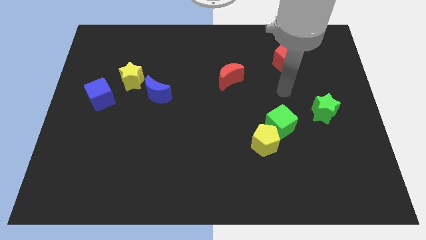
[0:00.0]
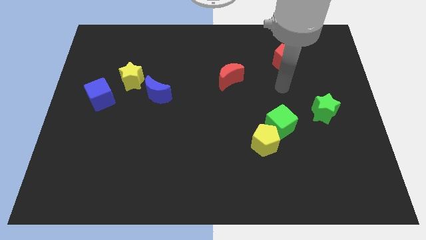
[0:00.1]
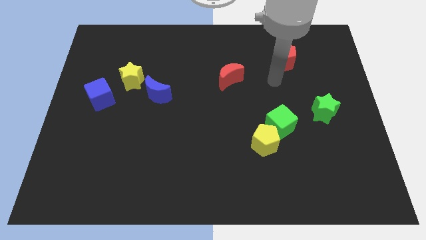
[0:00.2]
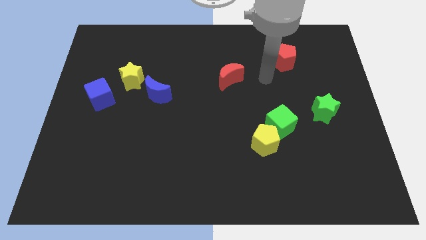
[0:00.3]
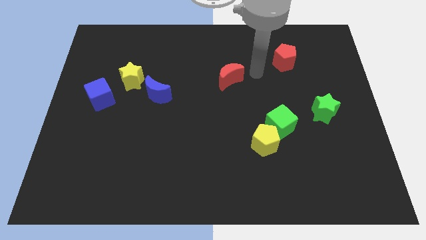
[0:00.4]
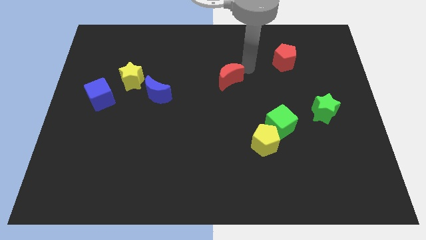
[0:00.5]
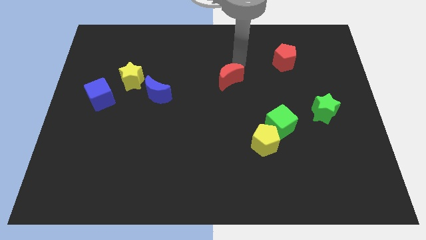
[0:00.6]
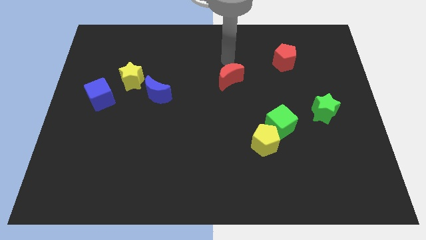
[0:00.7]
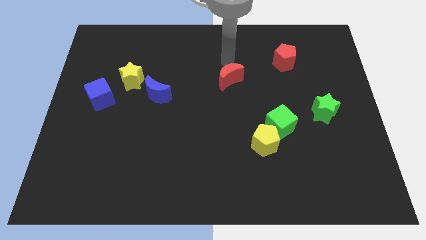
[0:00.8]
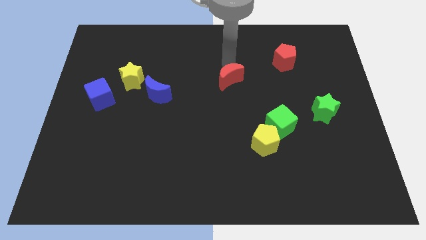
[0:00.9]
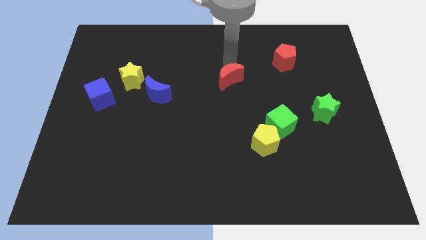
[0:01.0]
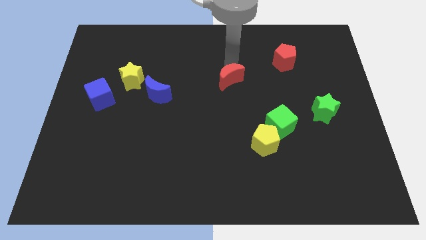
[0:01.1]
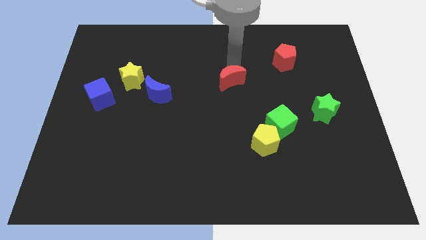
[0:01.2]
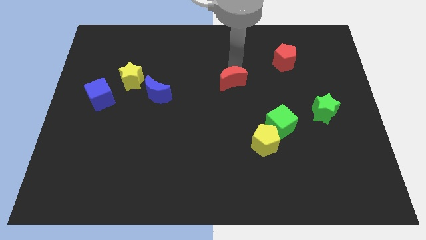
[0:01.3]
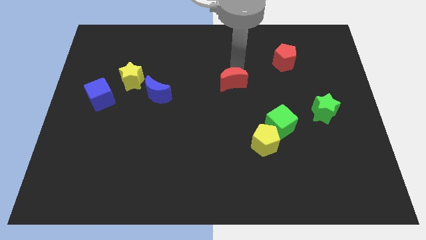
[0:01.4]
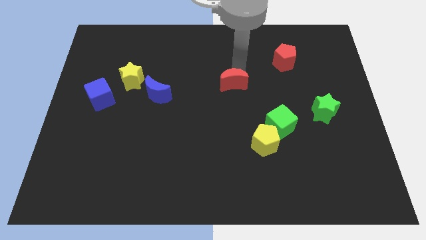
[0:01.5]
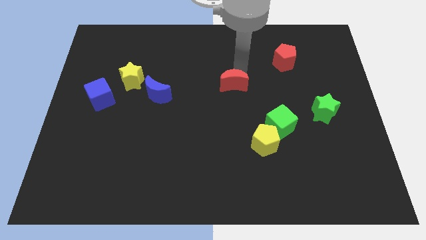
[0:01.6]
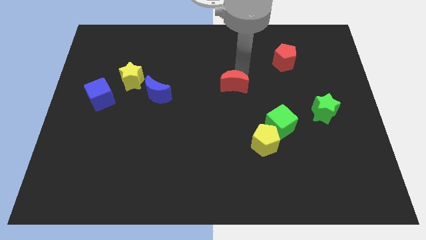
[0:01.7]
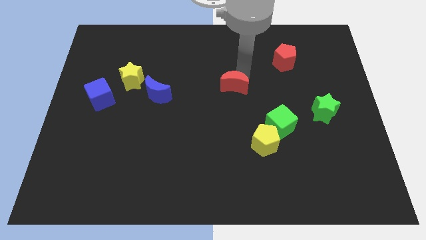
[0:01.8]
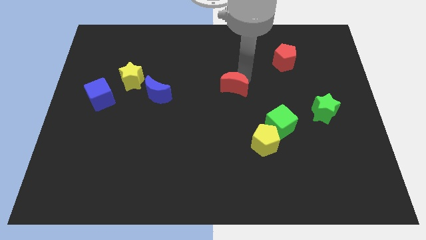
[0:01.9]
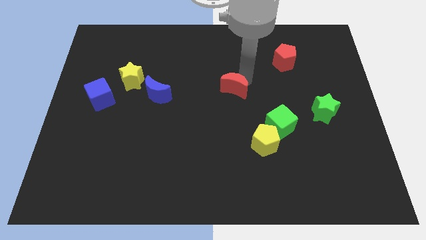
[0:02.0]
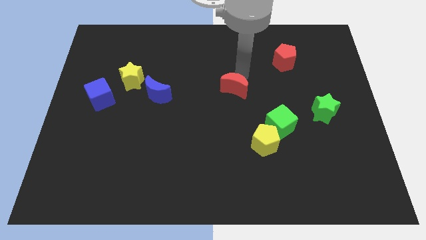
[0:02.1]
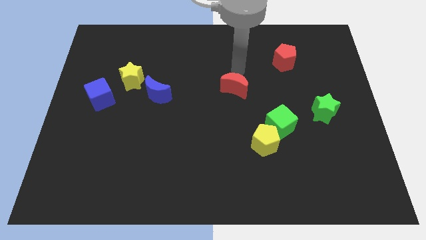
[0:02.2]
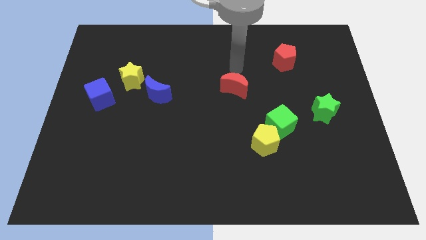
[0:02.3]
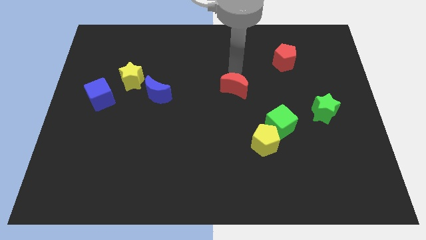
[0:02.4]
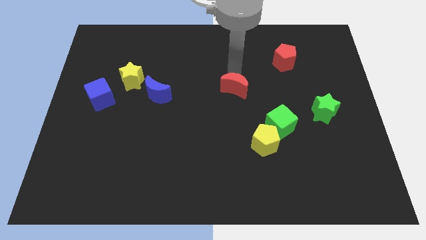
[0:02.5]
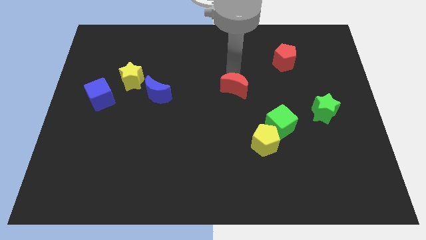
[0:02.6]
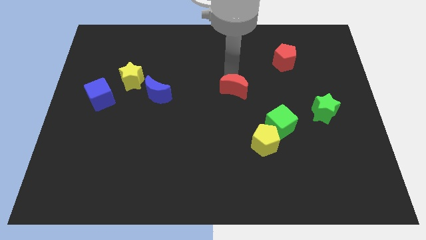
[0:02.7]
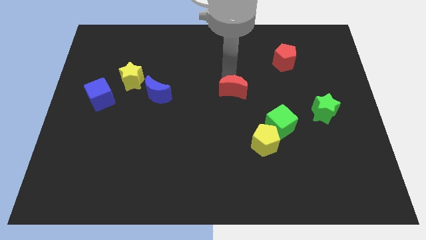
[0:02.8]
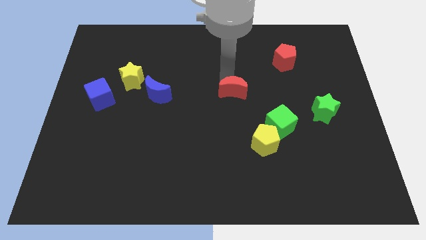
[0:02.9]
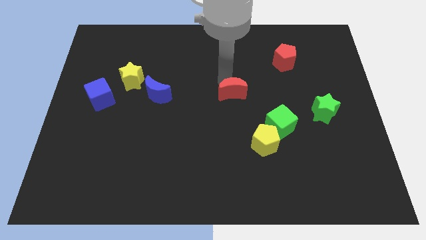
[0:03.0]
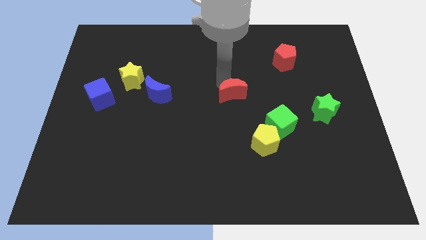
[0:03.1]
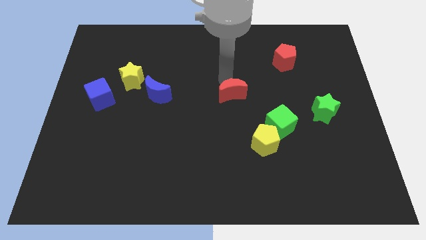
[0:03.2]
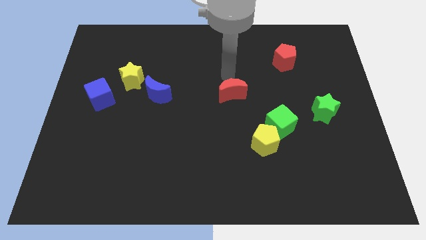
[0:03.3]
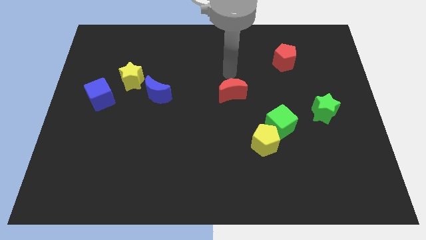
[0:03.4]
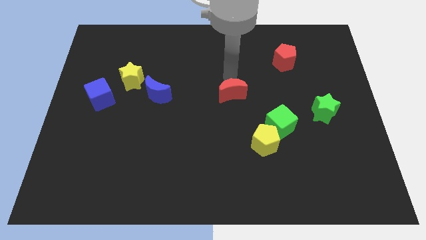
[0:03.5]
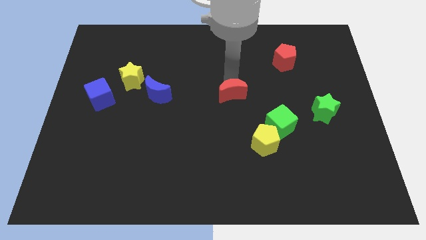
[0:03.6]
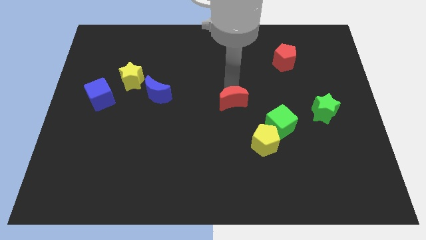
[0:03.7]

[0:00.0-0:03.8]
push the red moon slightly down

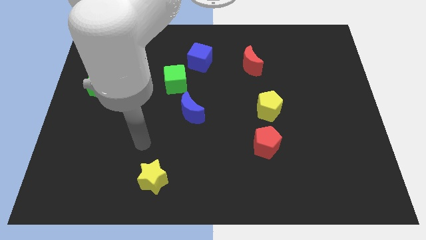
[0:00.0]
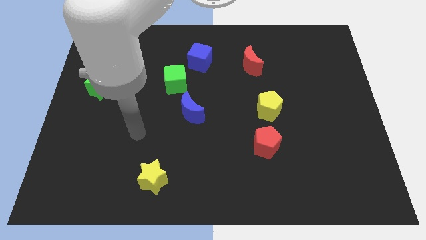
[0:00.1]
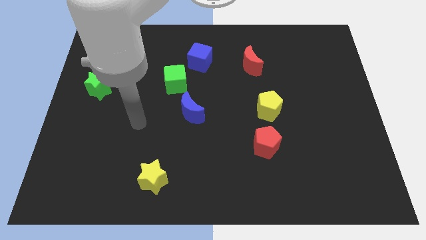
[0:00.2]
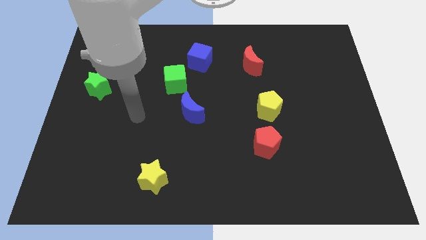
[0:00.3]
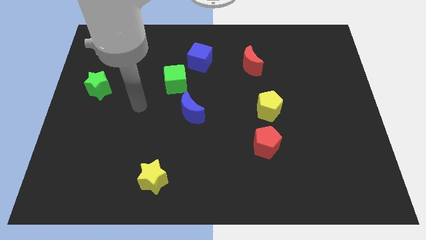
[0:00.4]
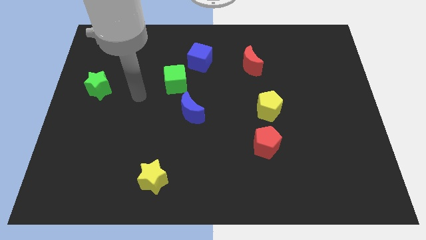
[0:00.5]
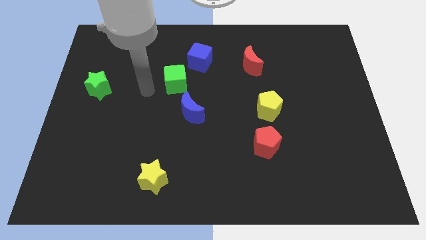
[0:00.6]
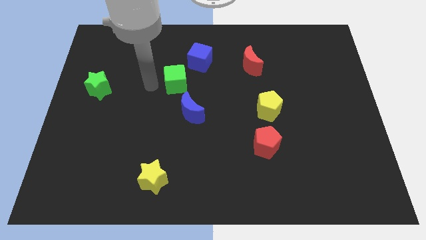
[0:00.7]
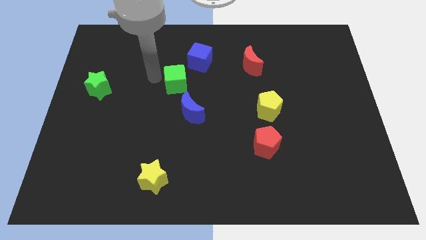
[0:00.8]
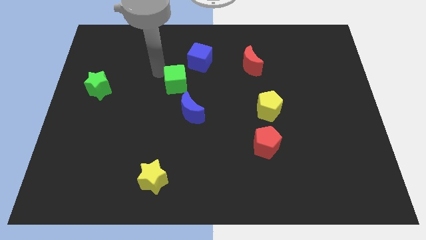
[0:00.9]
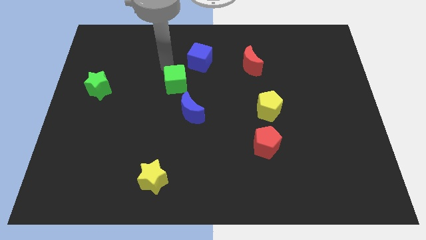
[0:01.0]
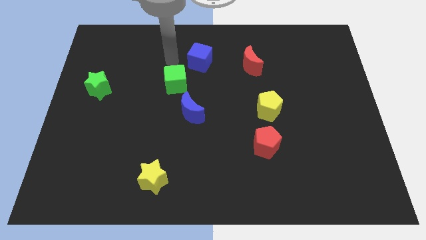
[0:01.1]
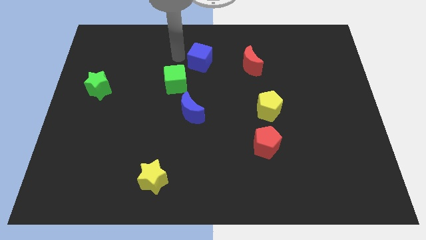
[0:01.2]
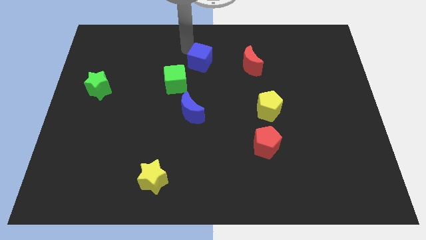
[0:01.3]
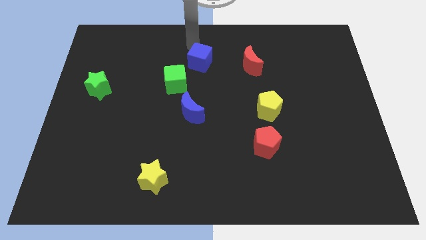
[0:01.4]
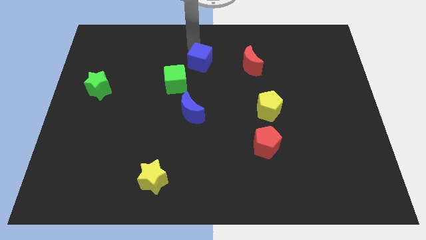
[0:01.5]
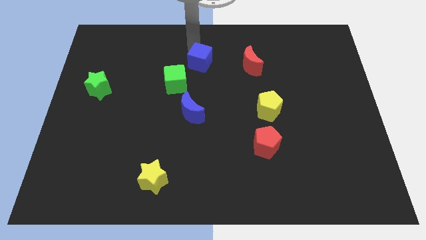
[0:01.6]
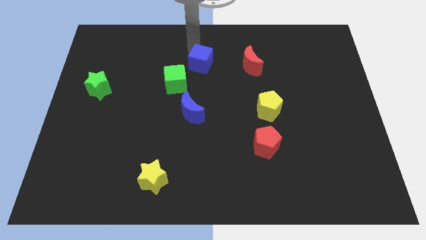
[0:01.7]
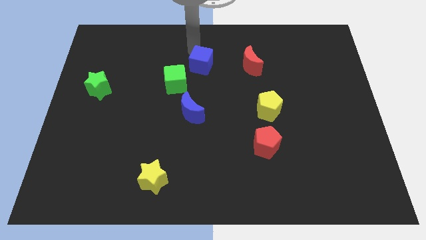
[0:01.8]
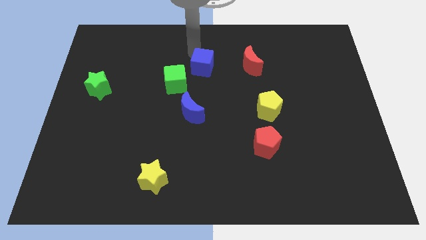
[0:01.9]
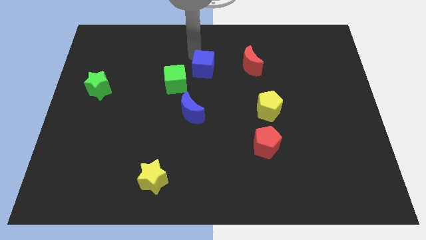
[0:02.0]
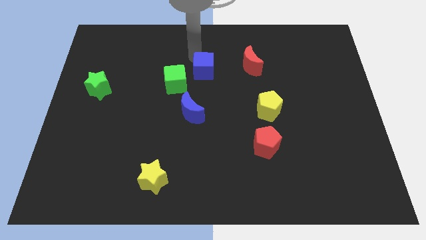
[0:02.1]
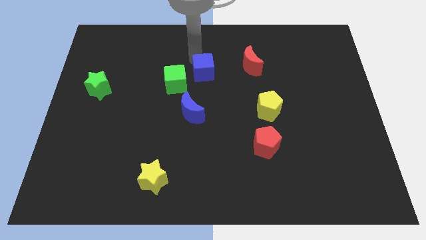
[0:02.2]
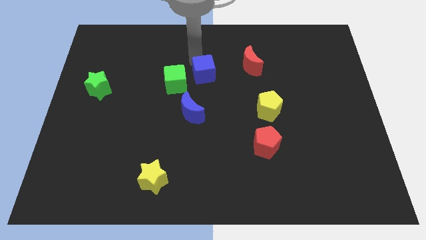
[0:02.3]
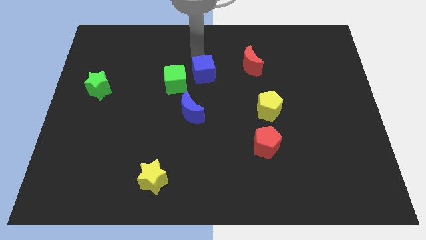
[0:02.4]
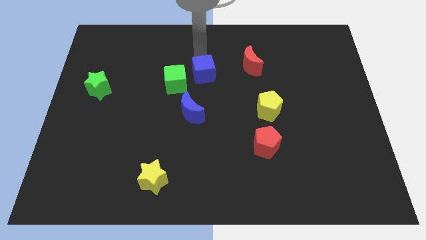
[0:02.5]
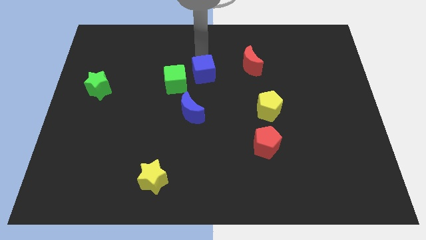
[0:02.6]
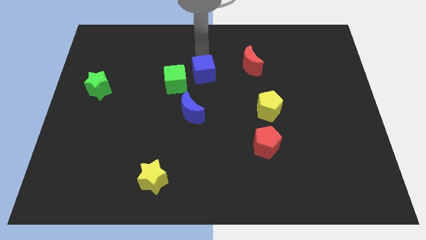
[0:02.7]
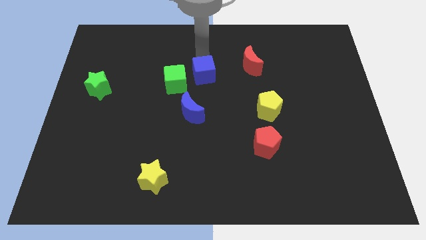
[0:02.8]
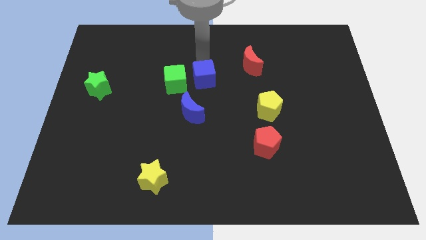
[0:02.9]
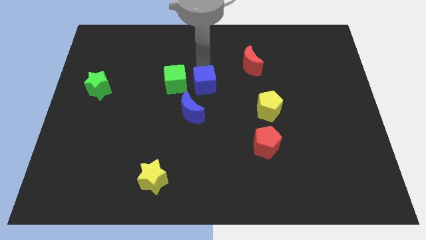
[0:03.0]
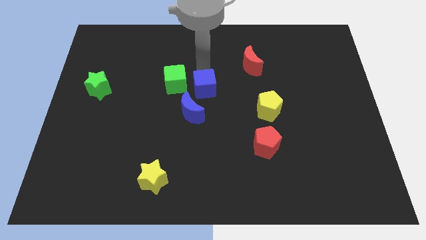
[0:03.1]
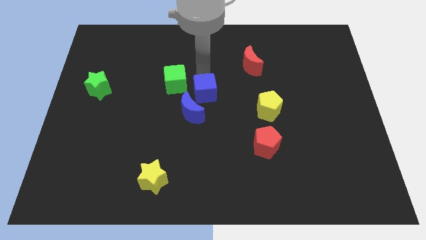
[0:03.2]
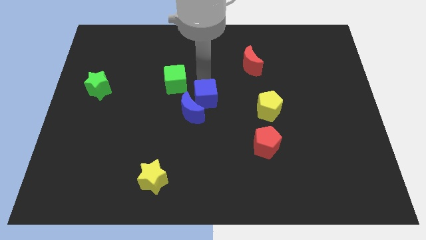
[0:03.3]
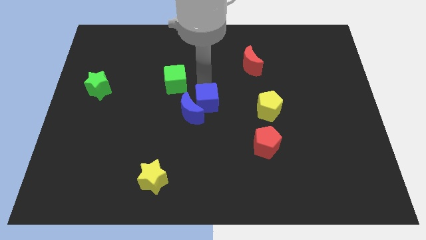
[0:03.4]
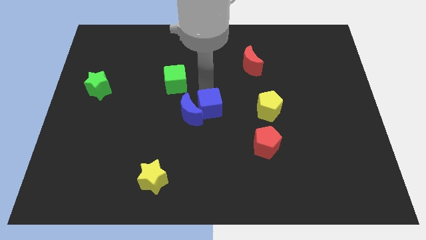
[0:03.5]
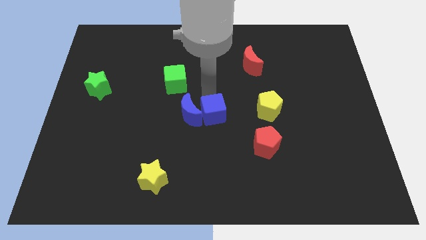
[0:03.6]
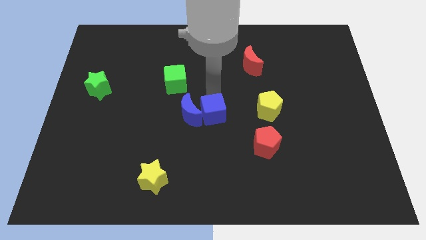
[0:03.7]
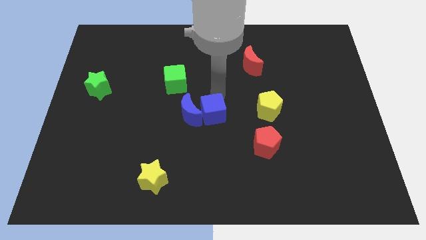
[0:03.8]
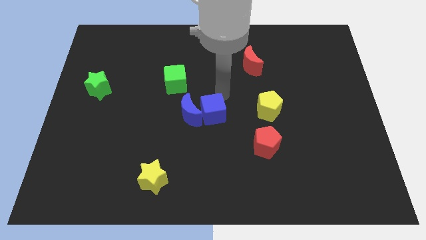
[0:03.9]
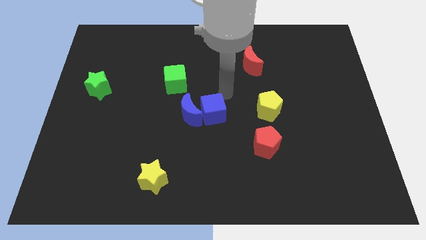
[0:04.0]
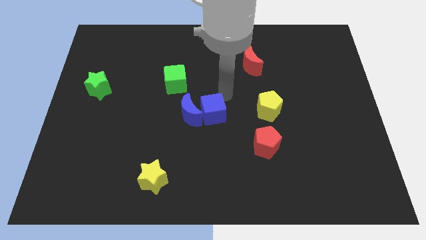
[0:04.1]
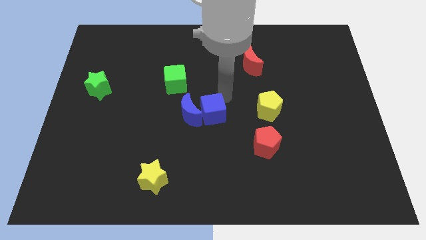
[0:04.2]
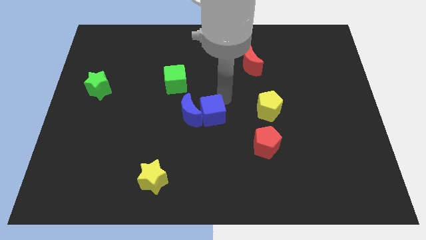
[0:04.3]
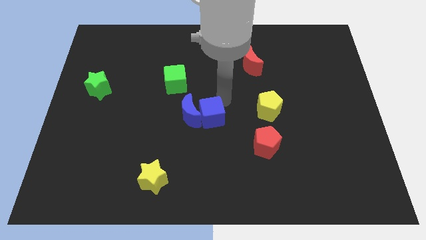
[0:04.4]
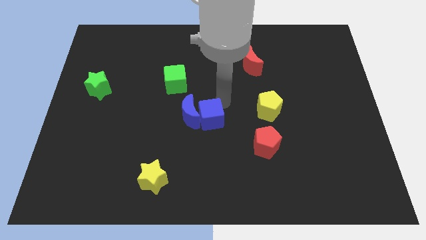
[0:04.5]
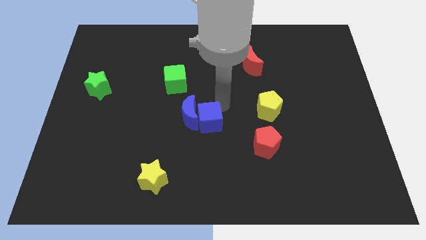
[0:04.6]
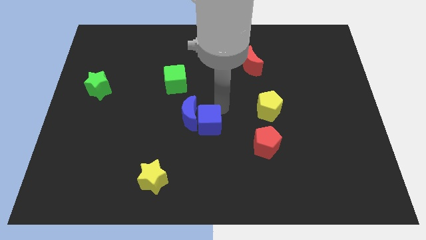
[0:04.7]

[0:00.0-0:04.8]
push the blue cube down

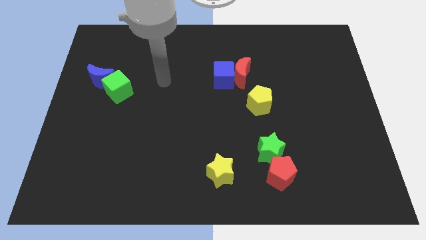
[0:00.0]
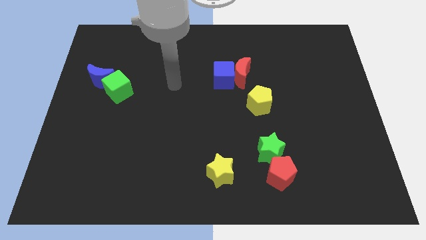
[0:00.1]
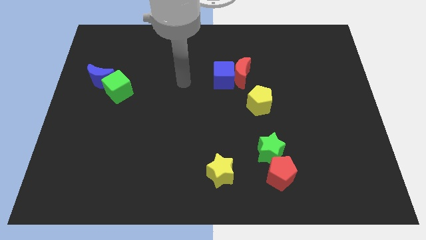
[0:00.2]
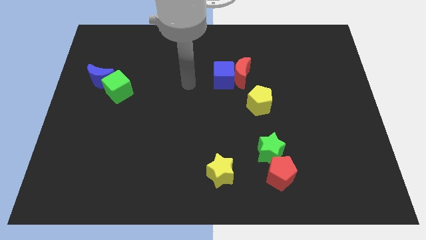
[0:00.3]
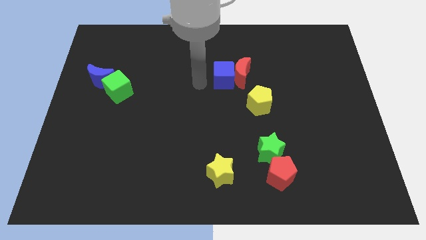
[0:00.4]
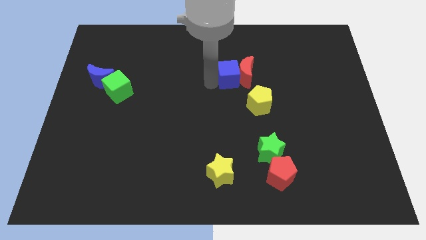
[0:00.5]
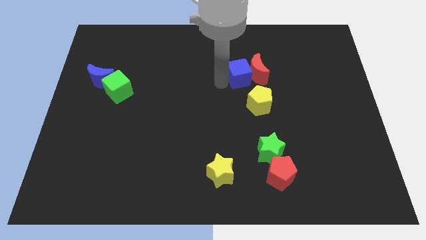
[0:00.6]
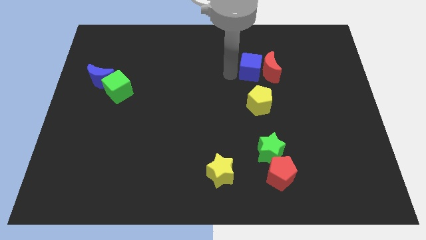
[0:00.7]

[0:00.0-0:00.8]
slide the red moon to the right slightly
